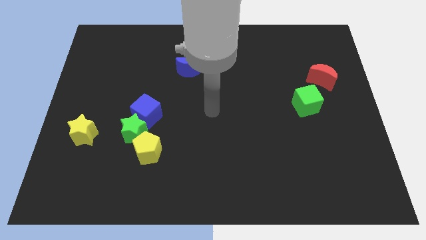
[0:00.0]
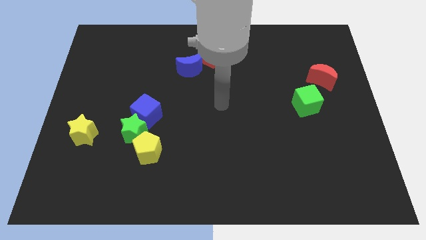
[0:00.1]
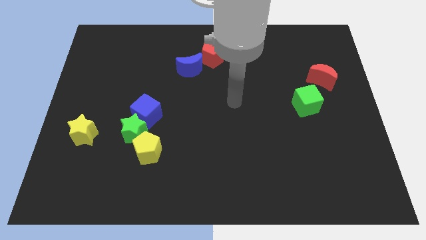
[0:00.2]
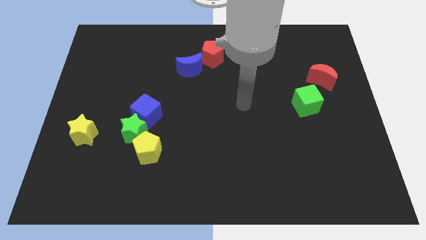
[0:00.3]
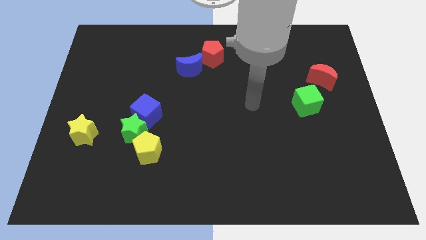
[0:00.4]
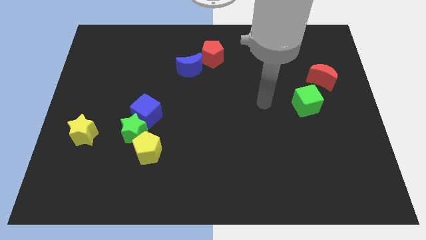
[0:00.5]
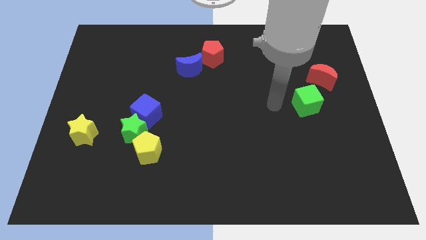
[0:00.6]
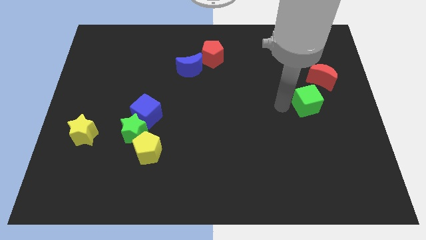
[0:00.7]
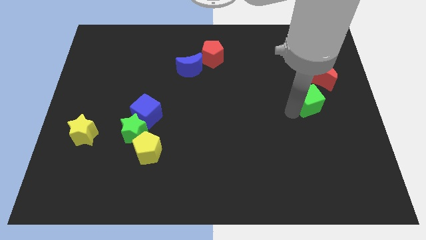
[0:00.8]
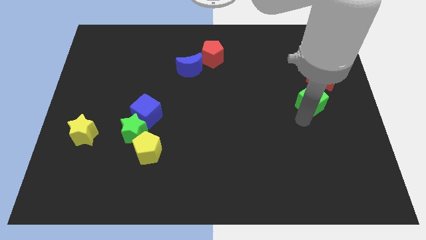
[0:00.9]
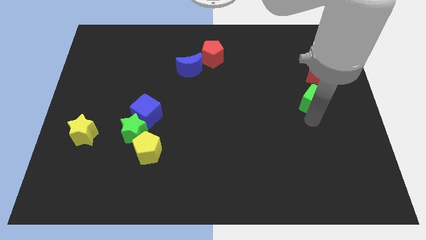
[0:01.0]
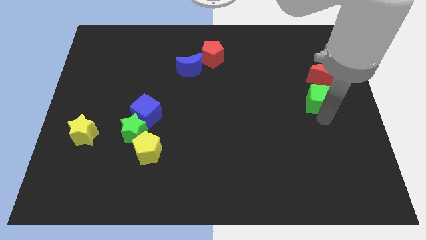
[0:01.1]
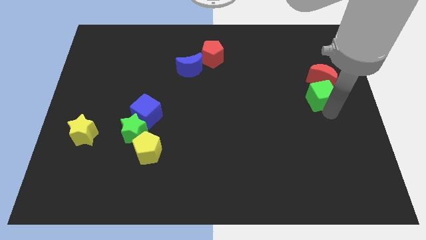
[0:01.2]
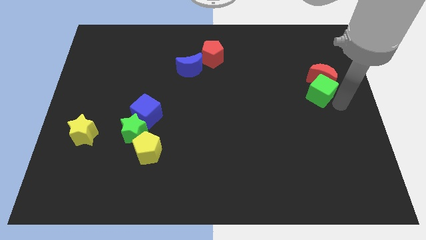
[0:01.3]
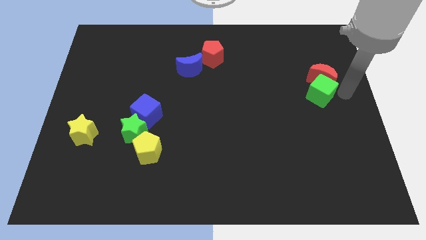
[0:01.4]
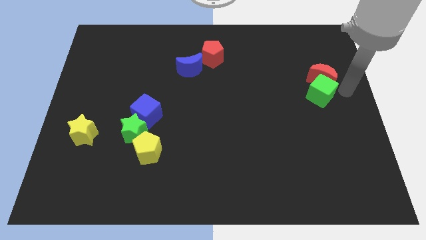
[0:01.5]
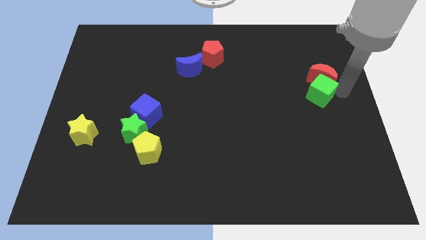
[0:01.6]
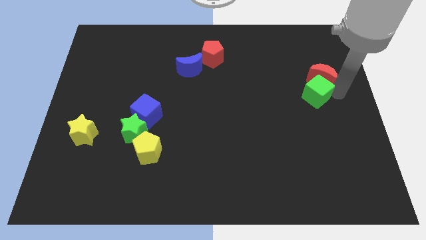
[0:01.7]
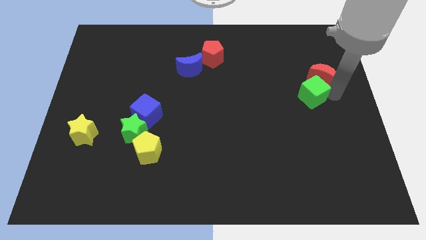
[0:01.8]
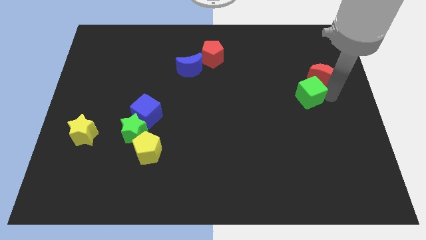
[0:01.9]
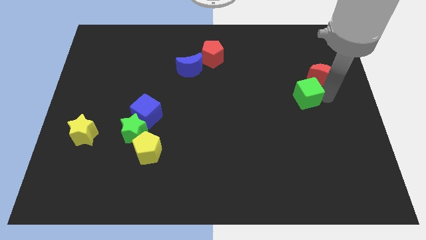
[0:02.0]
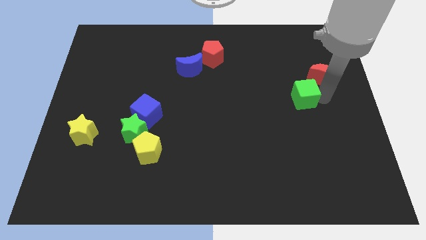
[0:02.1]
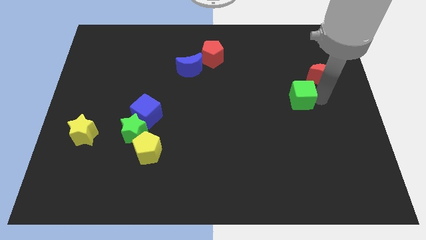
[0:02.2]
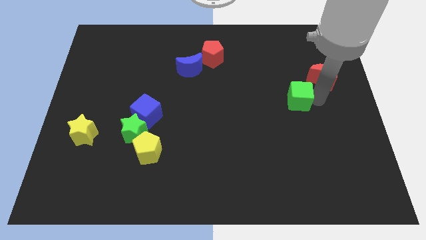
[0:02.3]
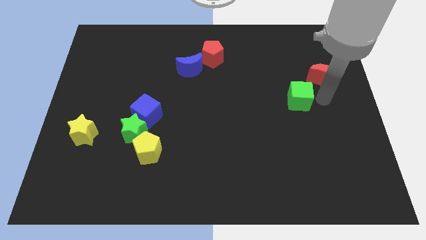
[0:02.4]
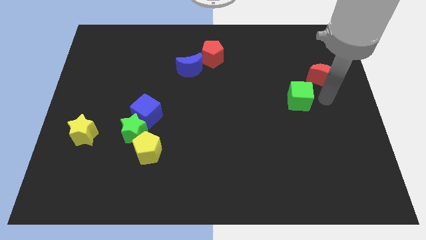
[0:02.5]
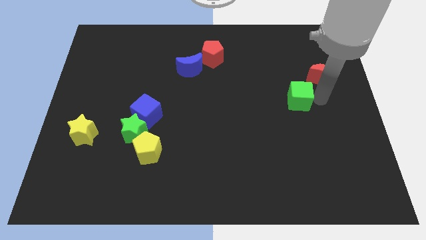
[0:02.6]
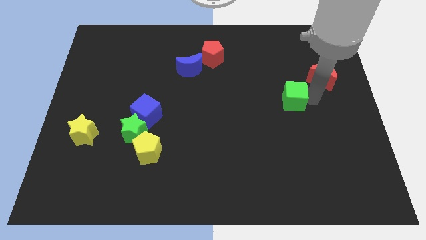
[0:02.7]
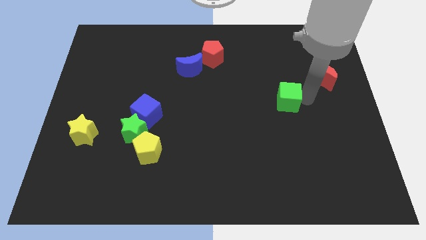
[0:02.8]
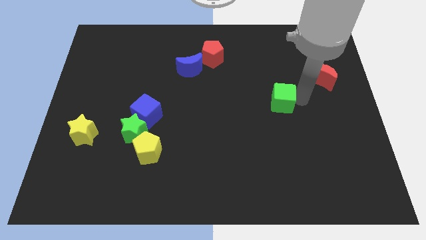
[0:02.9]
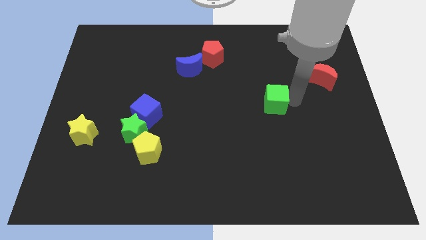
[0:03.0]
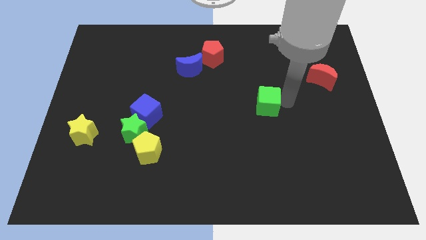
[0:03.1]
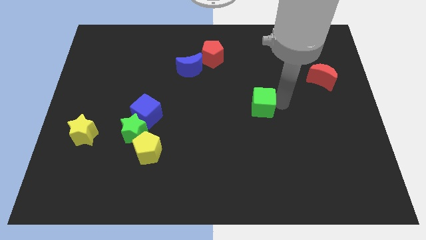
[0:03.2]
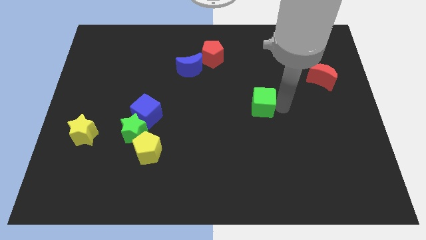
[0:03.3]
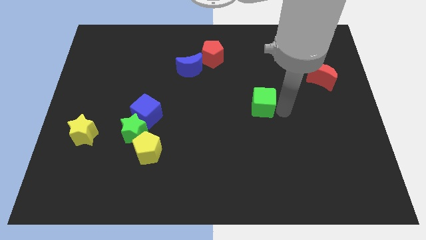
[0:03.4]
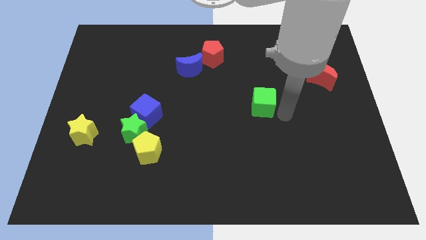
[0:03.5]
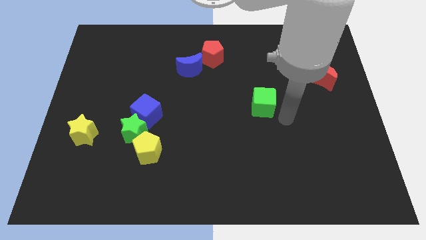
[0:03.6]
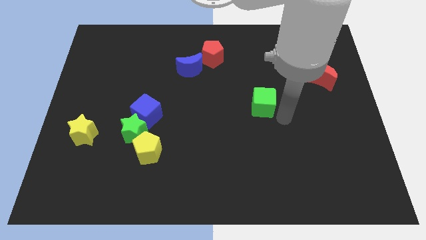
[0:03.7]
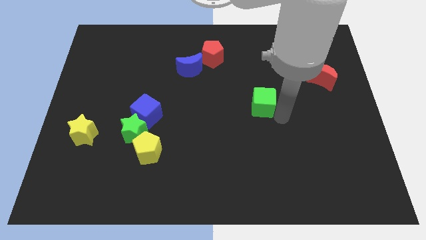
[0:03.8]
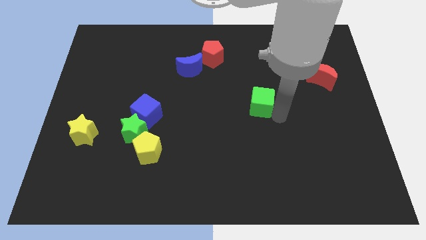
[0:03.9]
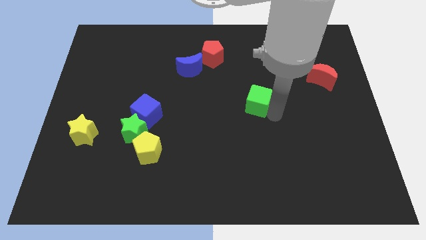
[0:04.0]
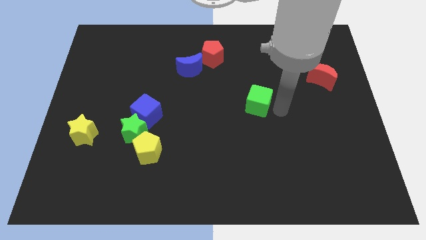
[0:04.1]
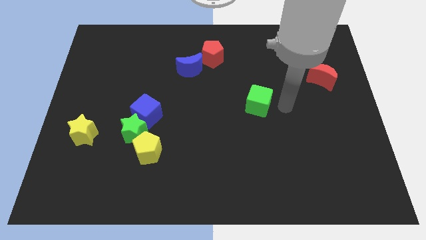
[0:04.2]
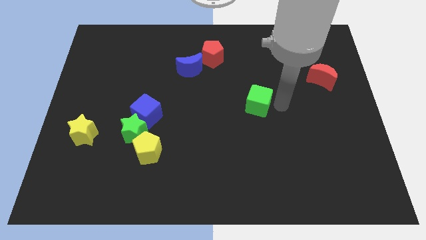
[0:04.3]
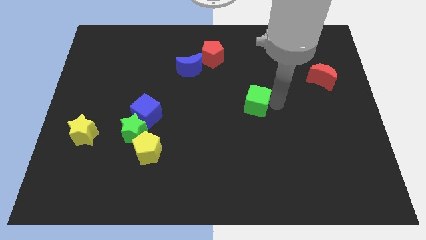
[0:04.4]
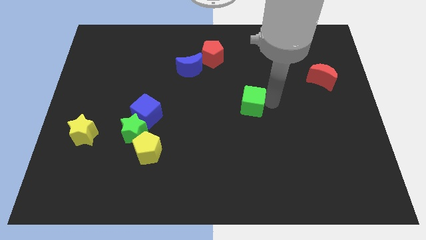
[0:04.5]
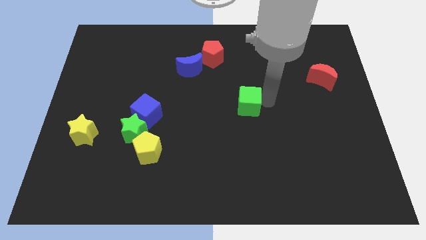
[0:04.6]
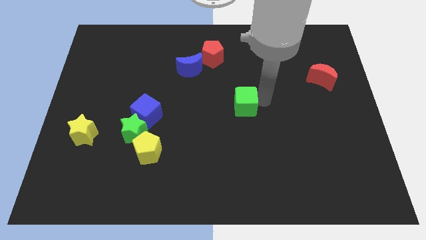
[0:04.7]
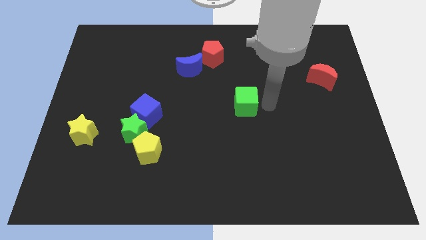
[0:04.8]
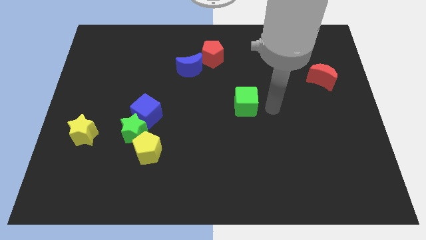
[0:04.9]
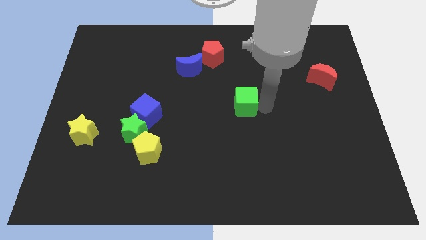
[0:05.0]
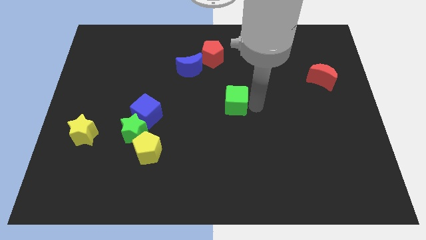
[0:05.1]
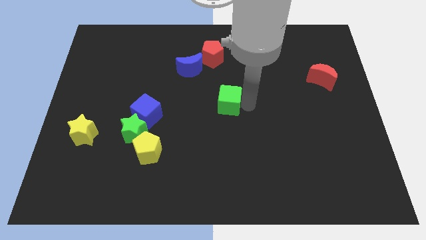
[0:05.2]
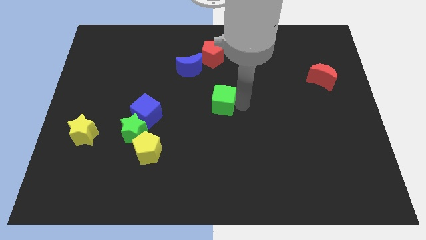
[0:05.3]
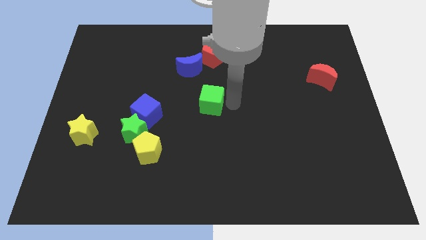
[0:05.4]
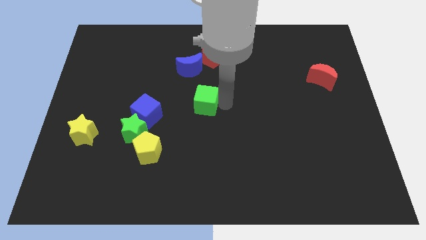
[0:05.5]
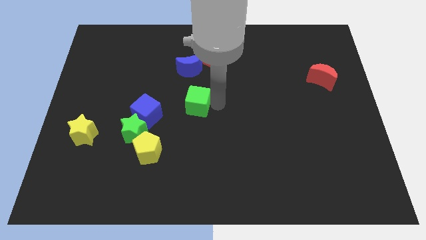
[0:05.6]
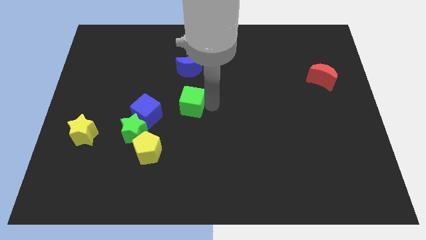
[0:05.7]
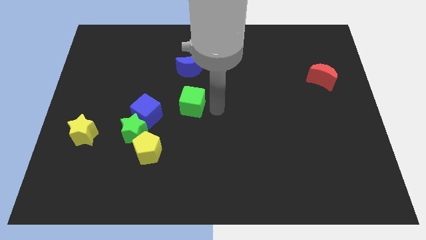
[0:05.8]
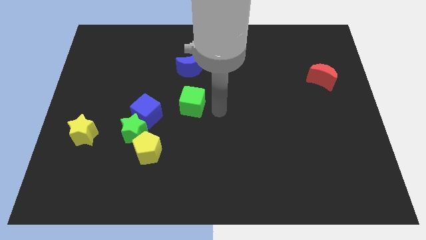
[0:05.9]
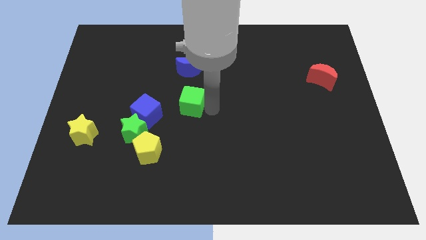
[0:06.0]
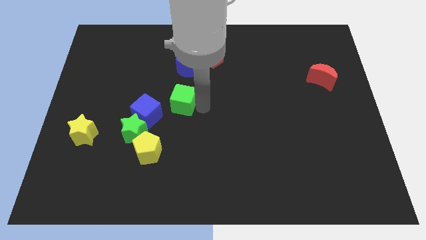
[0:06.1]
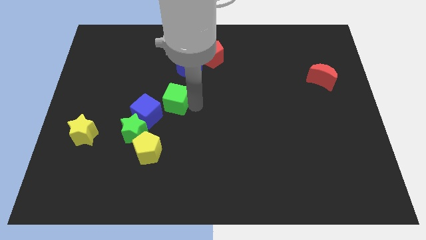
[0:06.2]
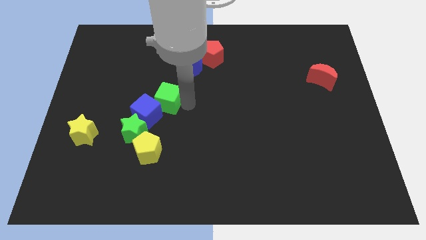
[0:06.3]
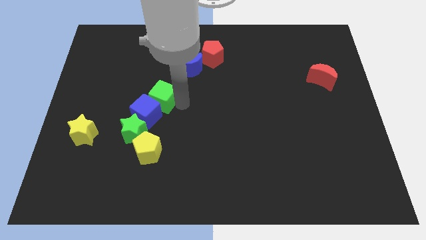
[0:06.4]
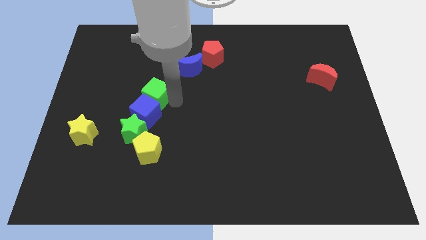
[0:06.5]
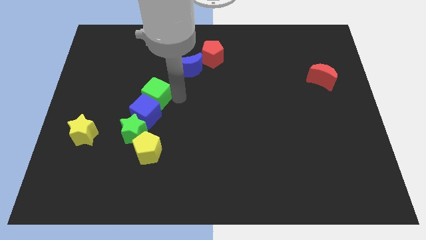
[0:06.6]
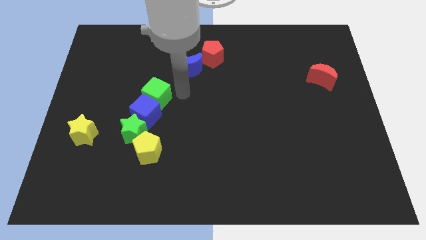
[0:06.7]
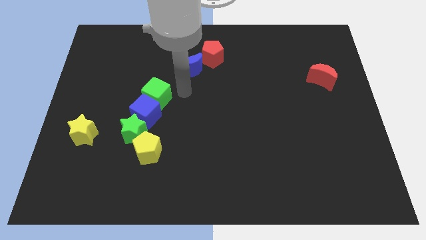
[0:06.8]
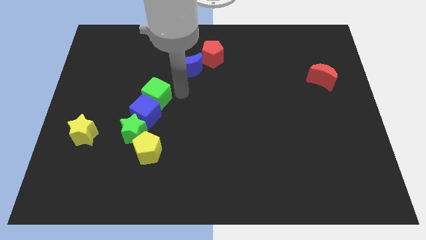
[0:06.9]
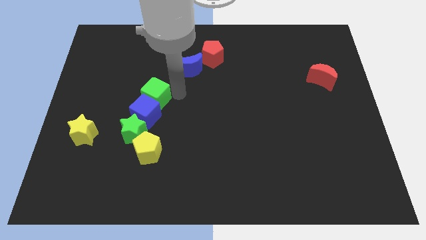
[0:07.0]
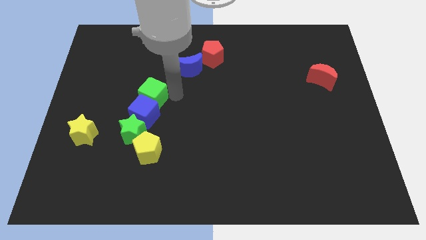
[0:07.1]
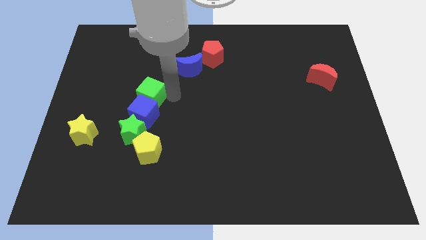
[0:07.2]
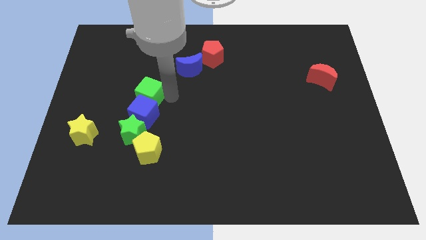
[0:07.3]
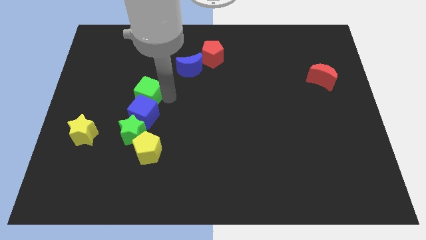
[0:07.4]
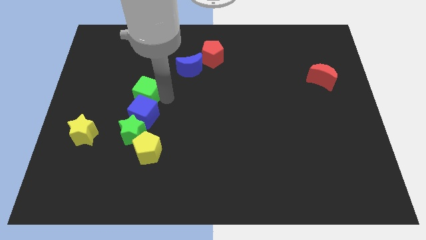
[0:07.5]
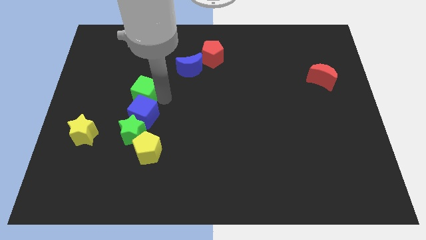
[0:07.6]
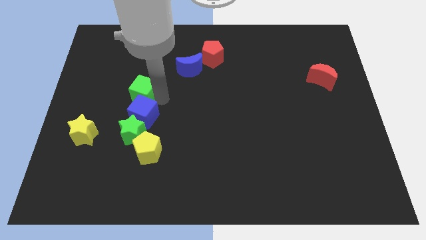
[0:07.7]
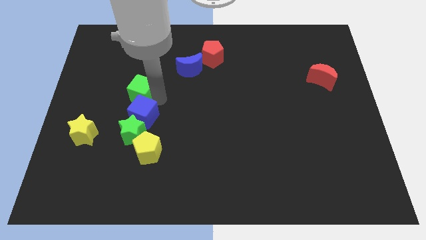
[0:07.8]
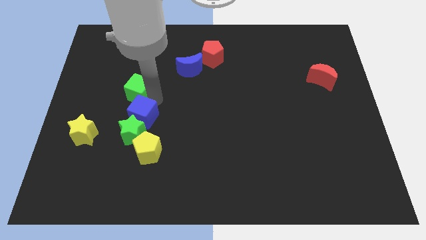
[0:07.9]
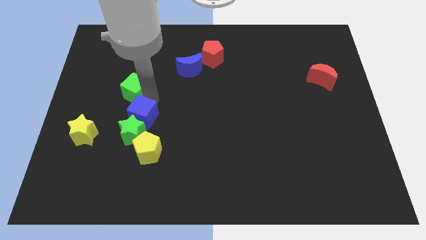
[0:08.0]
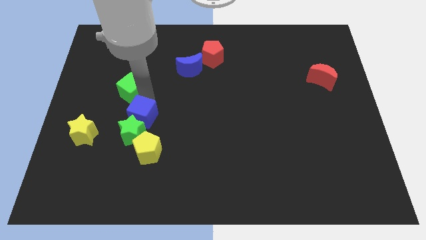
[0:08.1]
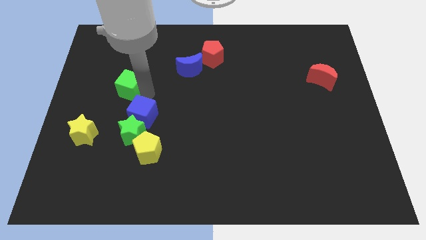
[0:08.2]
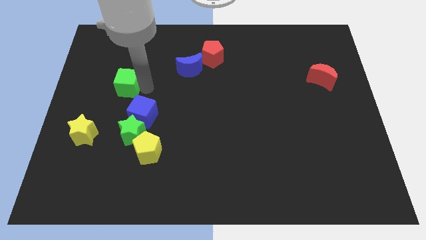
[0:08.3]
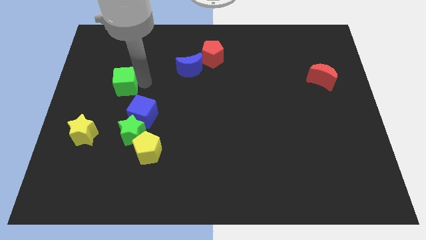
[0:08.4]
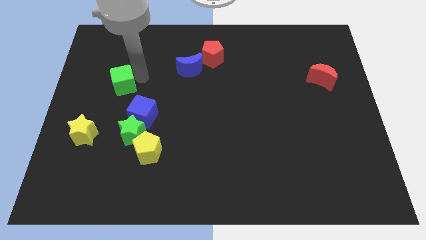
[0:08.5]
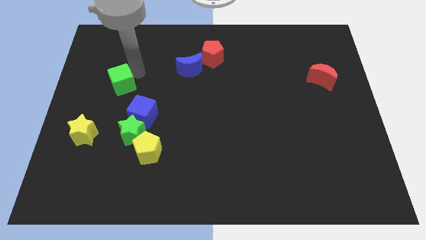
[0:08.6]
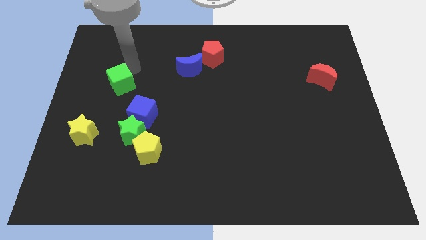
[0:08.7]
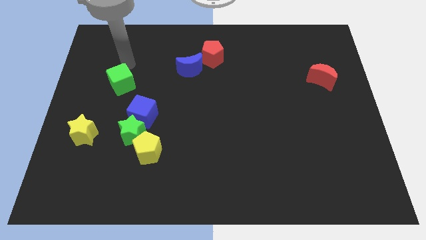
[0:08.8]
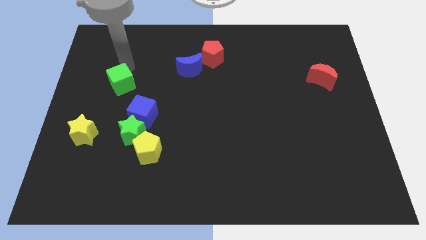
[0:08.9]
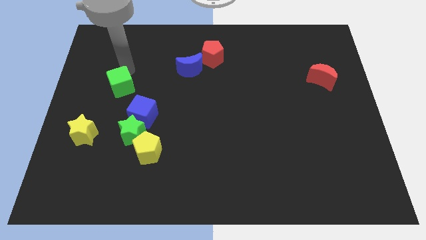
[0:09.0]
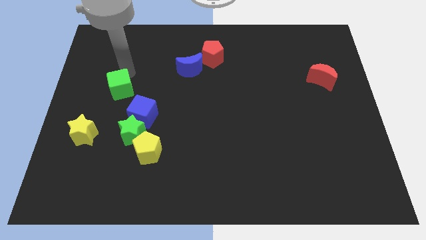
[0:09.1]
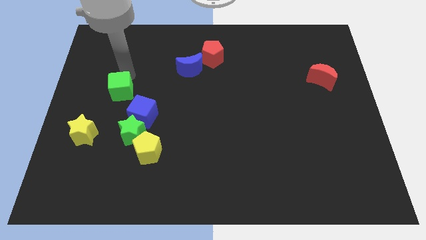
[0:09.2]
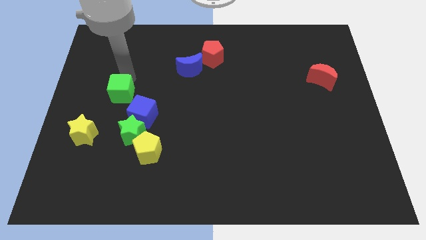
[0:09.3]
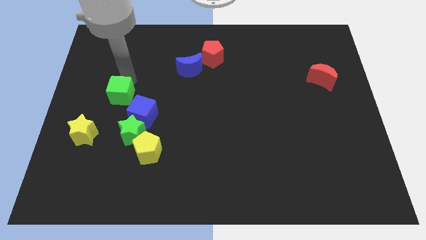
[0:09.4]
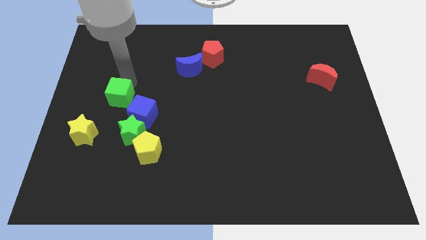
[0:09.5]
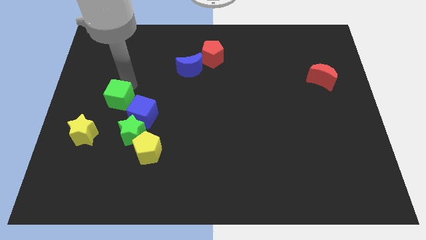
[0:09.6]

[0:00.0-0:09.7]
push the green cube to the top left side of the green star
